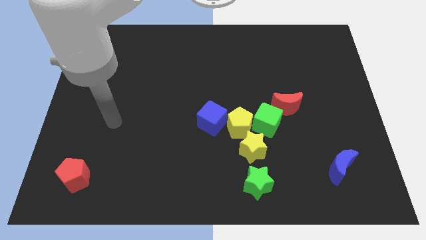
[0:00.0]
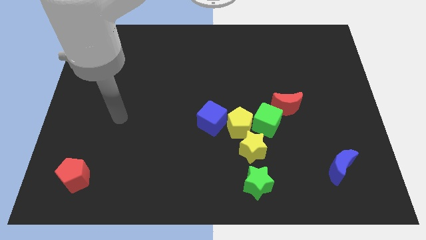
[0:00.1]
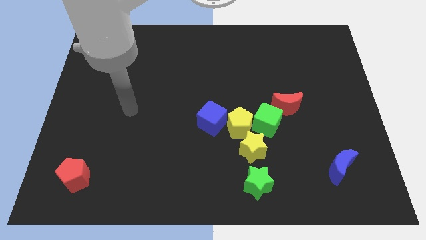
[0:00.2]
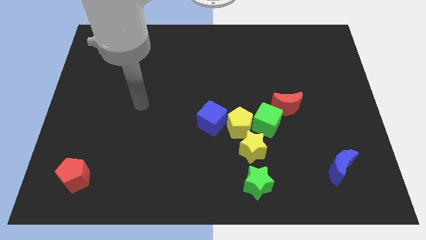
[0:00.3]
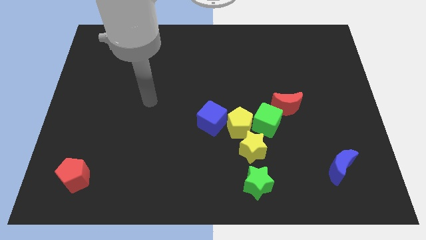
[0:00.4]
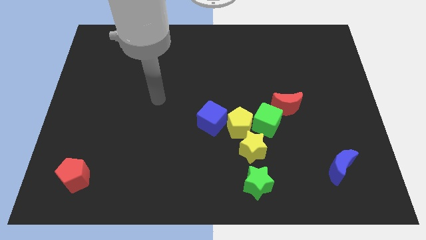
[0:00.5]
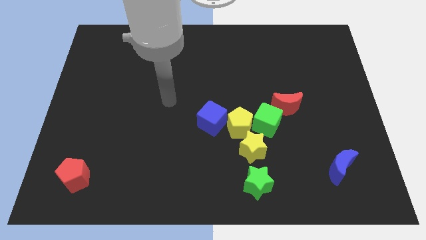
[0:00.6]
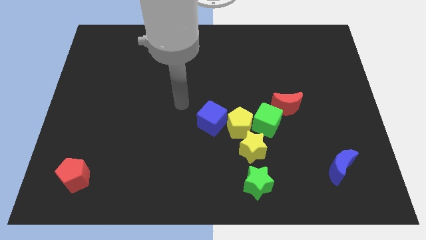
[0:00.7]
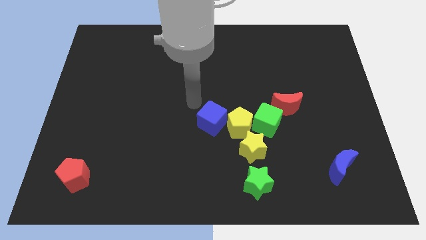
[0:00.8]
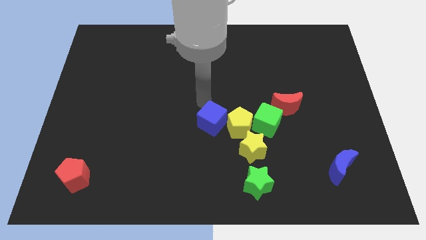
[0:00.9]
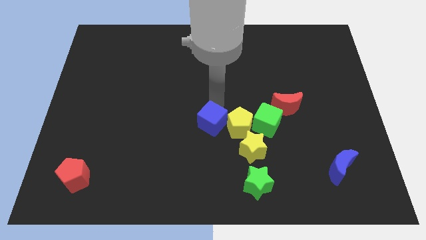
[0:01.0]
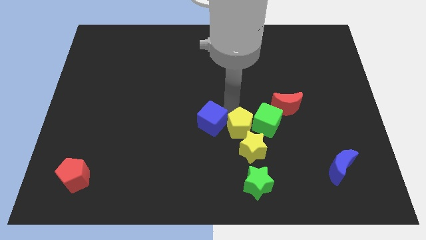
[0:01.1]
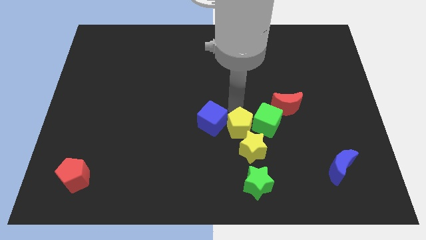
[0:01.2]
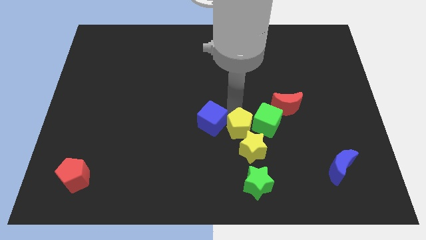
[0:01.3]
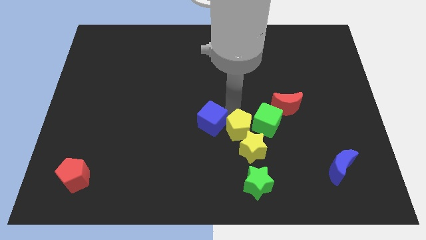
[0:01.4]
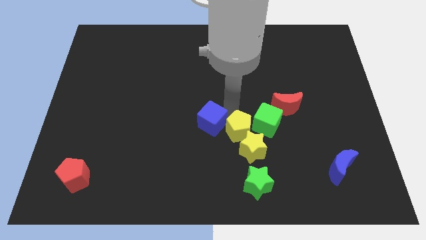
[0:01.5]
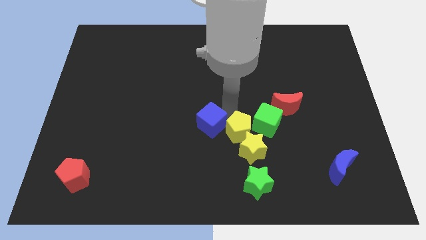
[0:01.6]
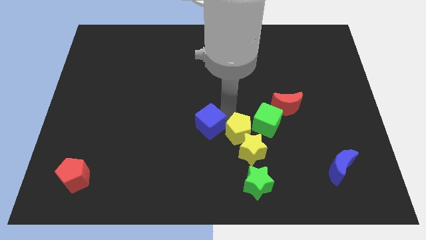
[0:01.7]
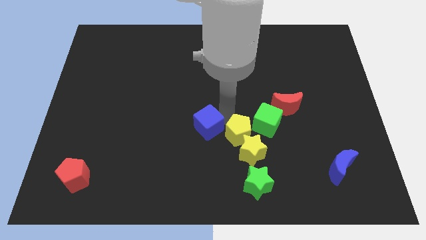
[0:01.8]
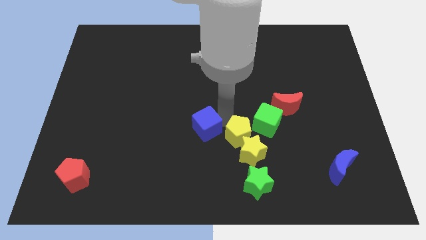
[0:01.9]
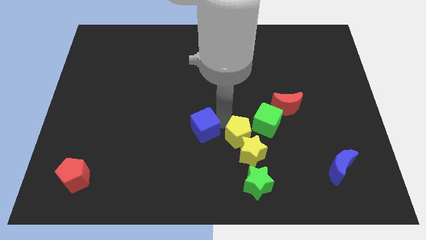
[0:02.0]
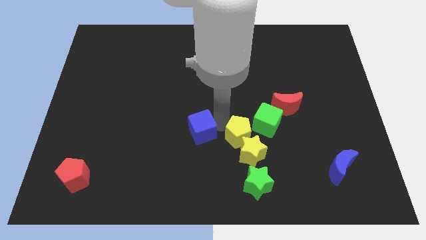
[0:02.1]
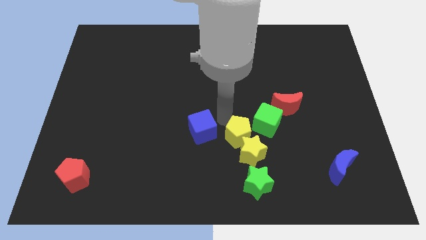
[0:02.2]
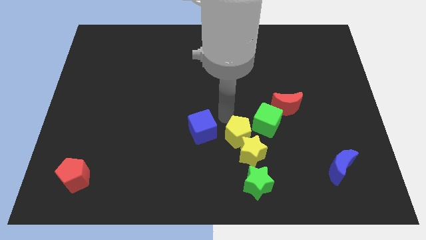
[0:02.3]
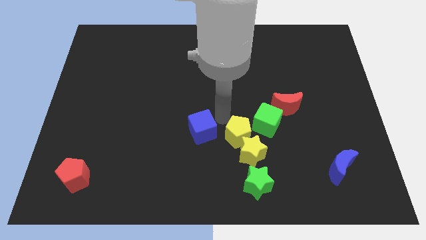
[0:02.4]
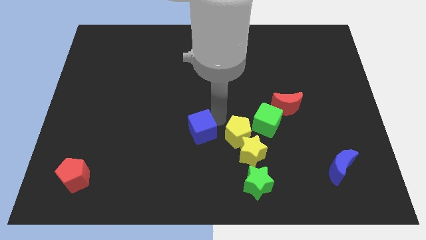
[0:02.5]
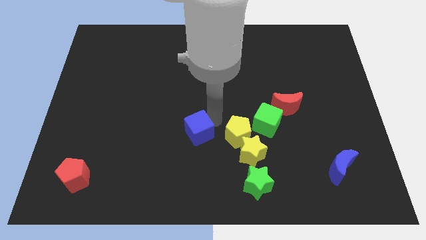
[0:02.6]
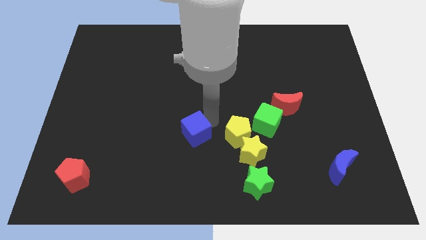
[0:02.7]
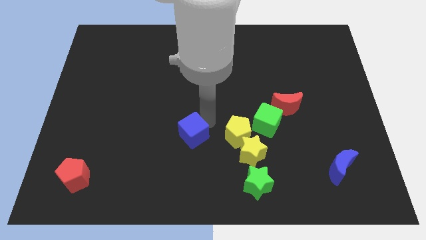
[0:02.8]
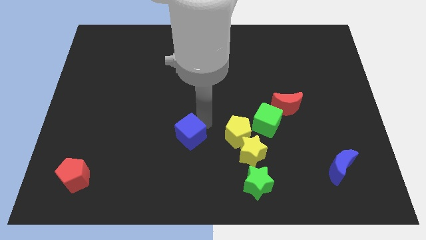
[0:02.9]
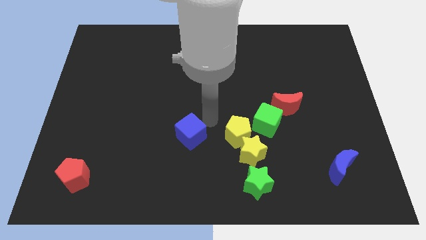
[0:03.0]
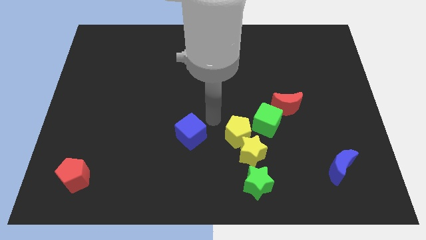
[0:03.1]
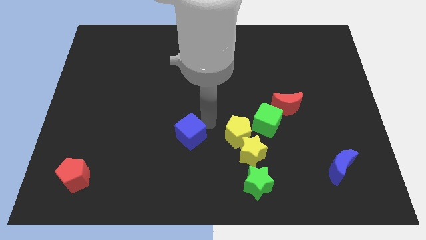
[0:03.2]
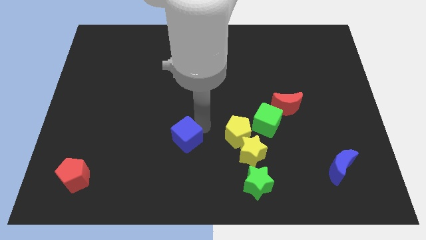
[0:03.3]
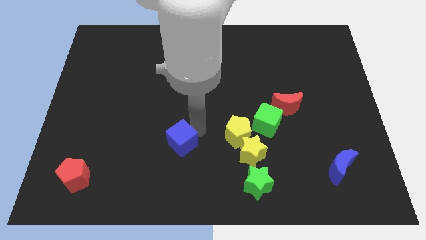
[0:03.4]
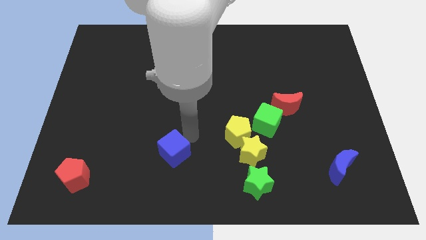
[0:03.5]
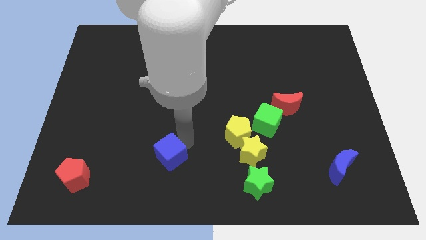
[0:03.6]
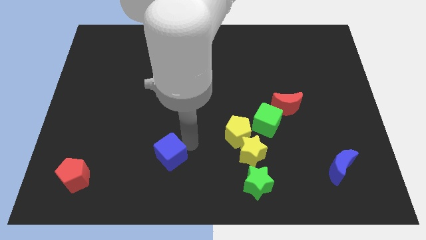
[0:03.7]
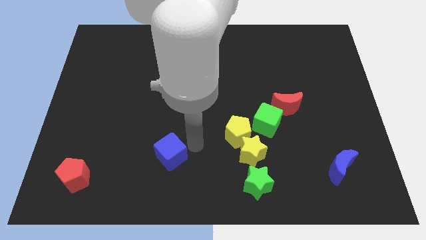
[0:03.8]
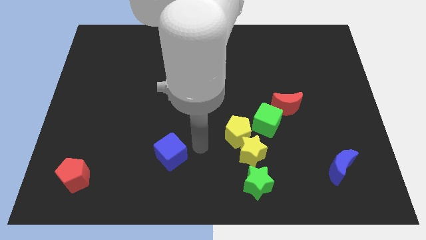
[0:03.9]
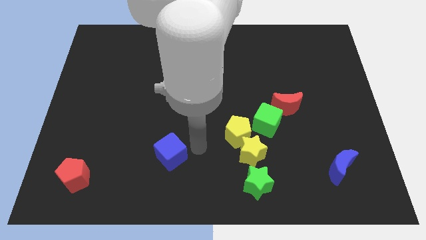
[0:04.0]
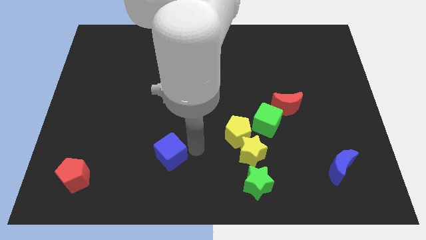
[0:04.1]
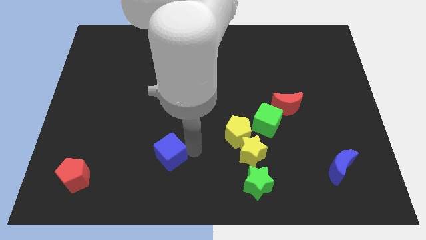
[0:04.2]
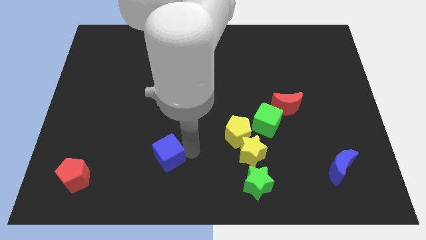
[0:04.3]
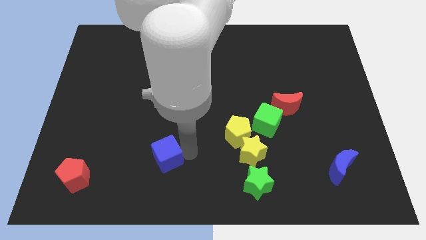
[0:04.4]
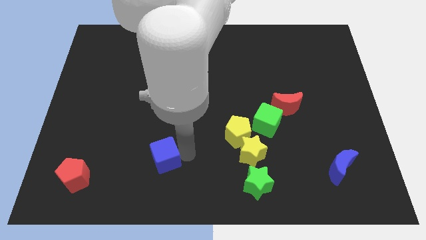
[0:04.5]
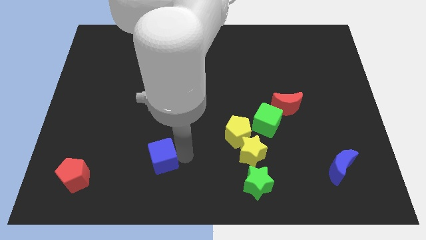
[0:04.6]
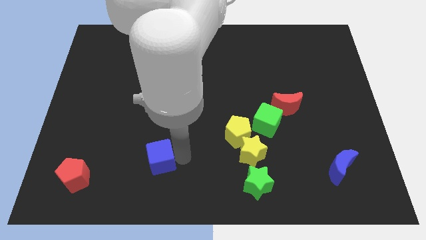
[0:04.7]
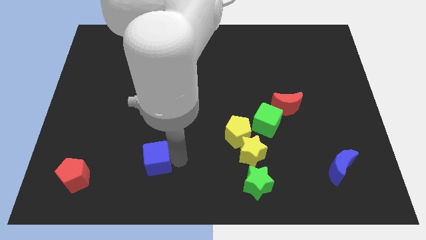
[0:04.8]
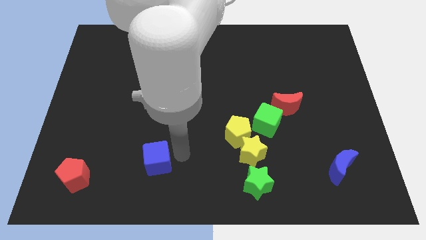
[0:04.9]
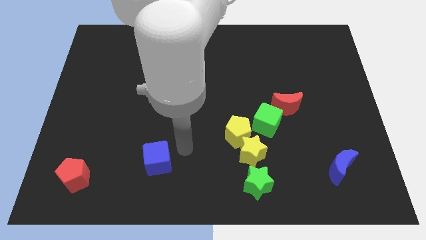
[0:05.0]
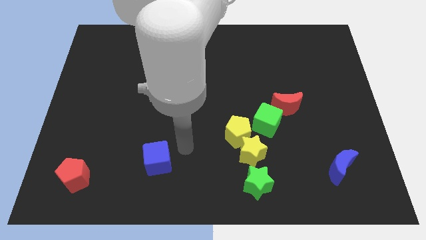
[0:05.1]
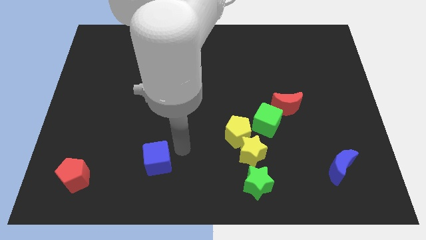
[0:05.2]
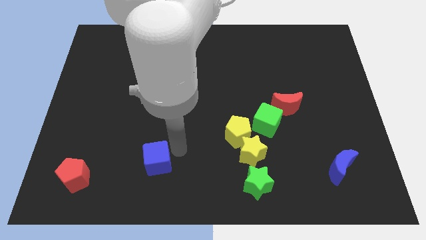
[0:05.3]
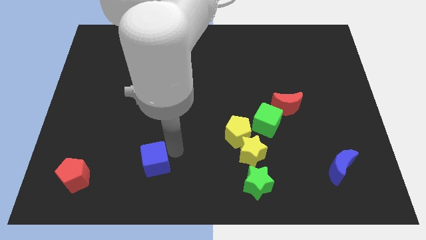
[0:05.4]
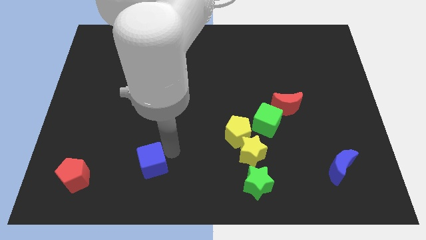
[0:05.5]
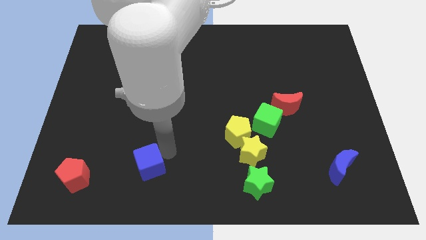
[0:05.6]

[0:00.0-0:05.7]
move the blue cube right of the red pentagon

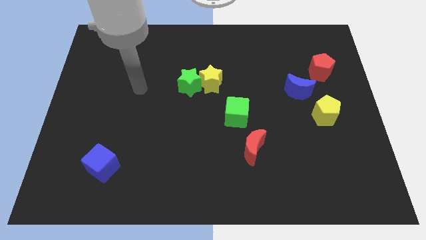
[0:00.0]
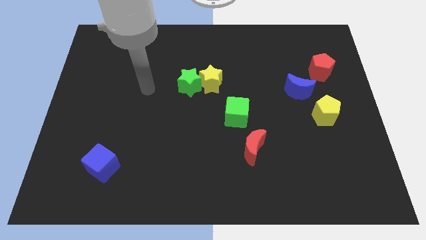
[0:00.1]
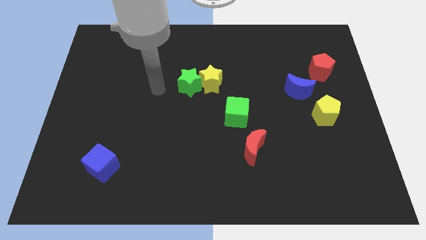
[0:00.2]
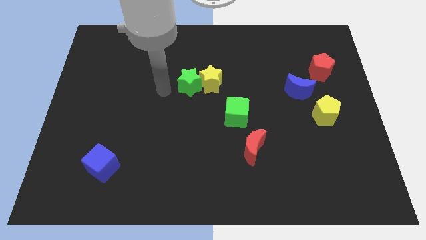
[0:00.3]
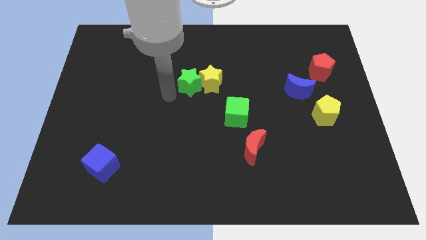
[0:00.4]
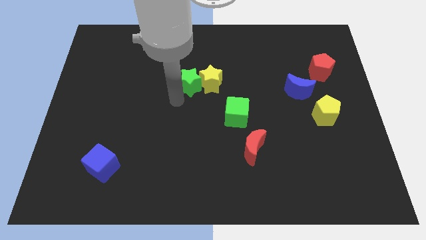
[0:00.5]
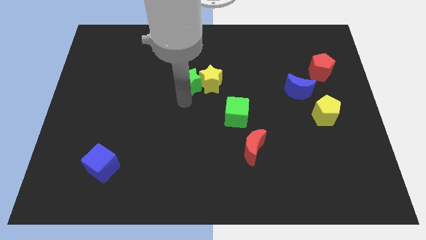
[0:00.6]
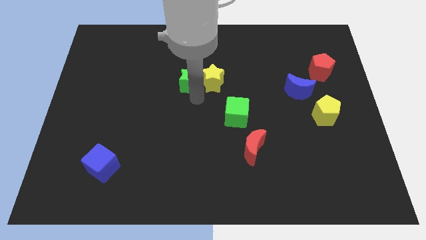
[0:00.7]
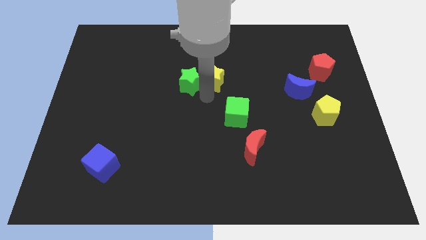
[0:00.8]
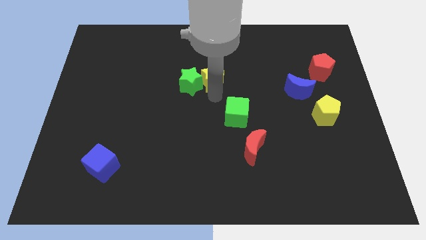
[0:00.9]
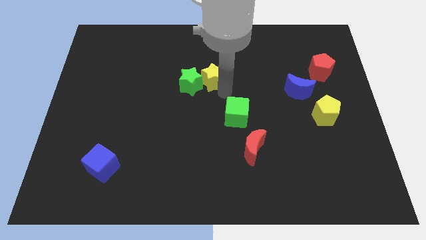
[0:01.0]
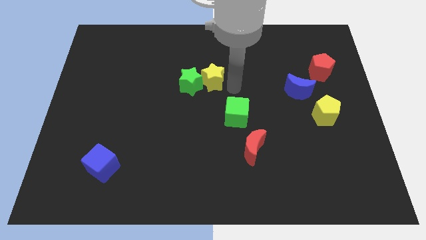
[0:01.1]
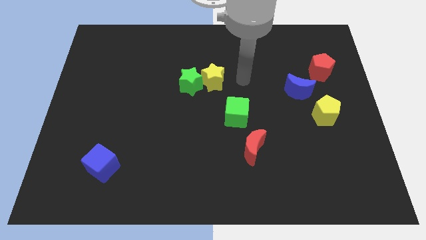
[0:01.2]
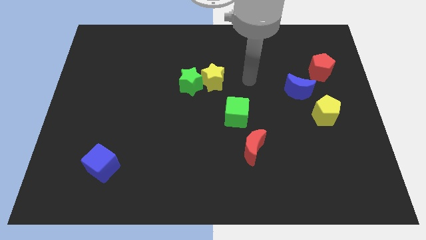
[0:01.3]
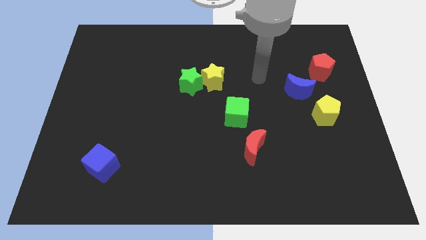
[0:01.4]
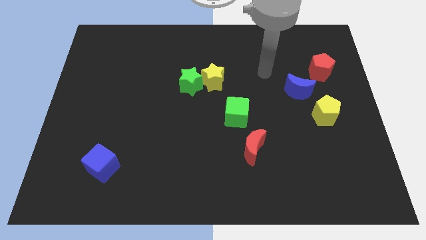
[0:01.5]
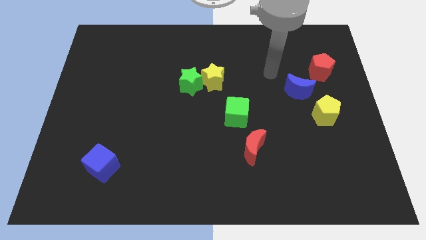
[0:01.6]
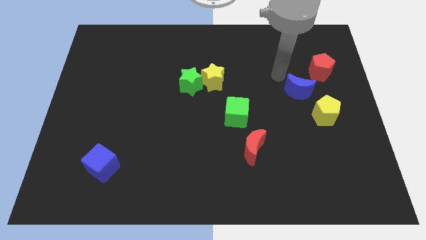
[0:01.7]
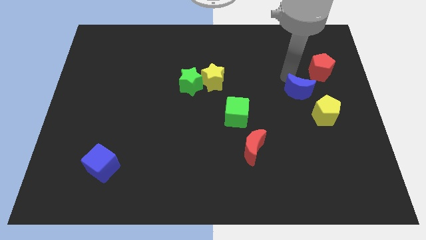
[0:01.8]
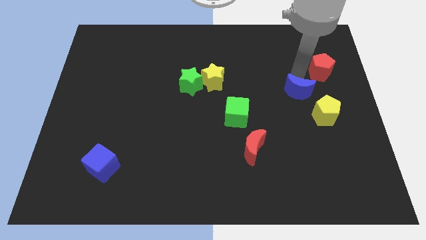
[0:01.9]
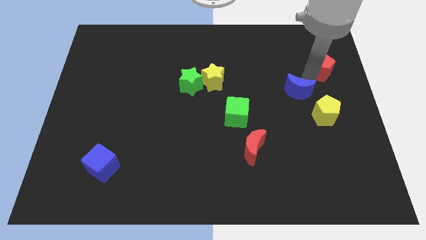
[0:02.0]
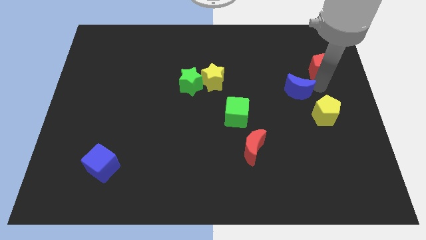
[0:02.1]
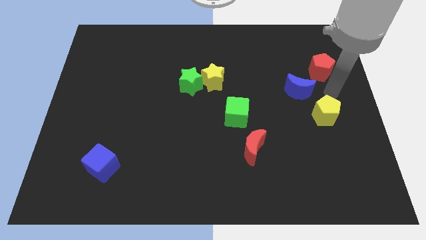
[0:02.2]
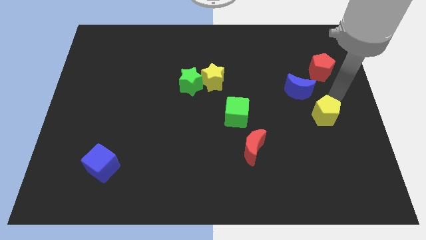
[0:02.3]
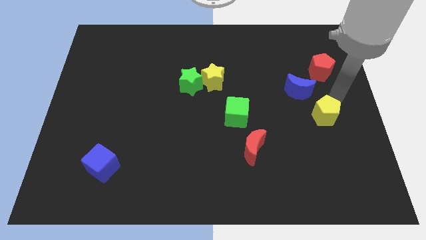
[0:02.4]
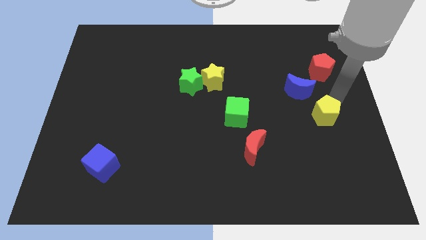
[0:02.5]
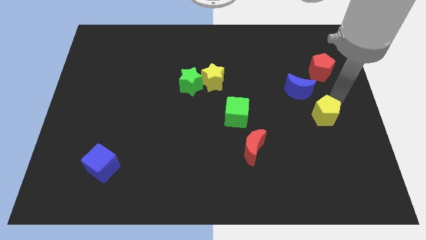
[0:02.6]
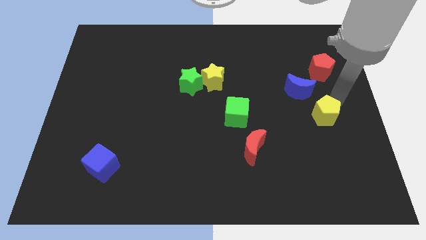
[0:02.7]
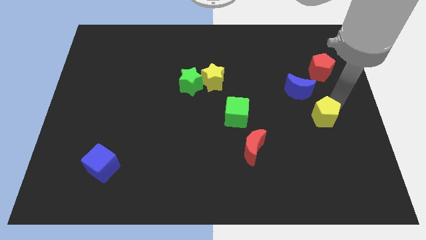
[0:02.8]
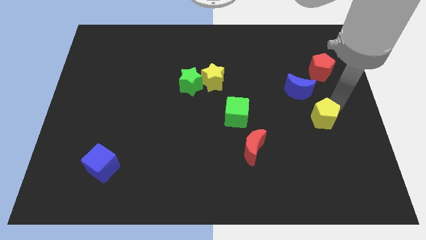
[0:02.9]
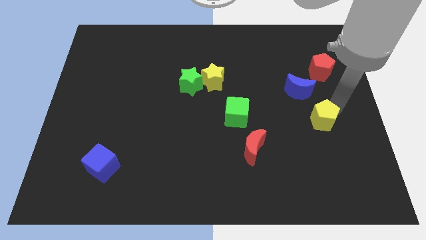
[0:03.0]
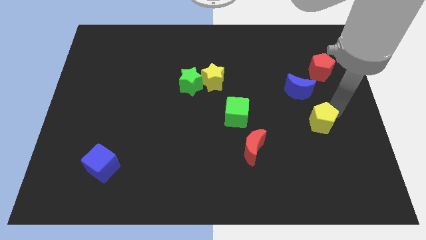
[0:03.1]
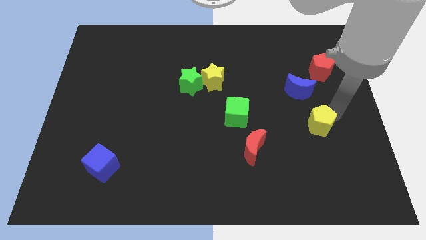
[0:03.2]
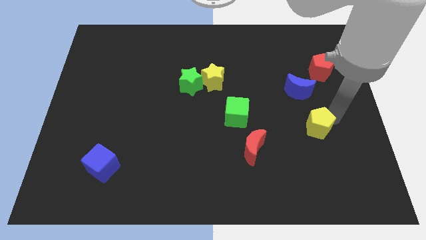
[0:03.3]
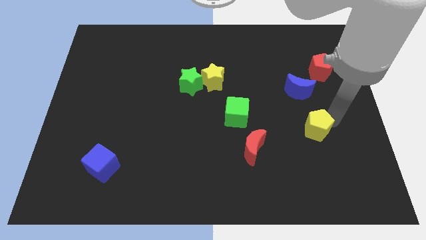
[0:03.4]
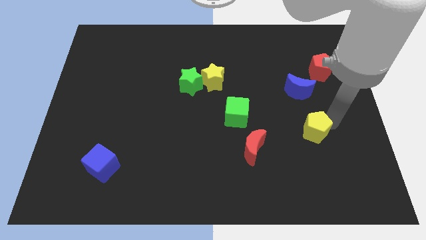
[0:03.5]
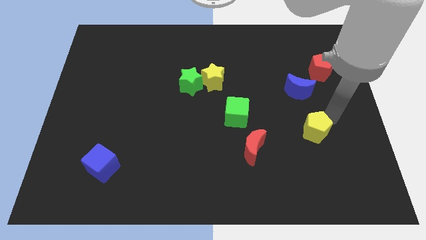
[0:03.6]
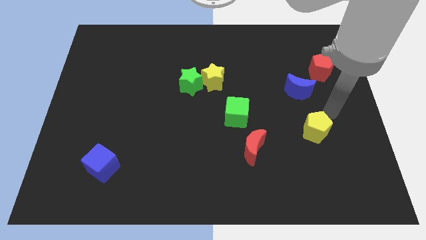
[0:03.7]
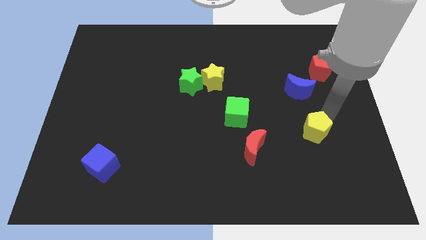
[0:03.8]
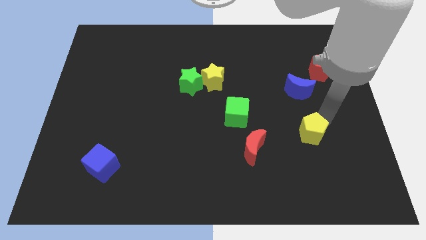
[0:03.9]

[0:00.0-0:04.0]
move the yellow pentagon to the right side of the red moon
